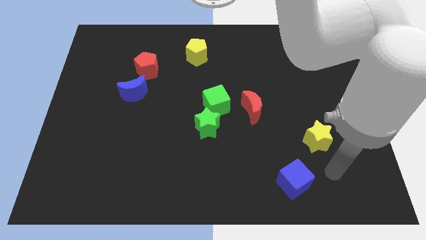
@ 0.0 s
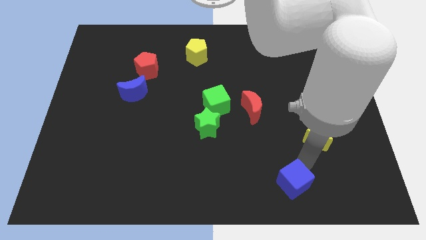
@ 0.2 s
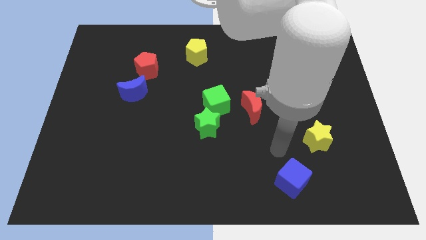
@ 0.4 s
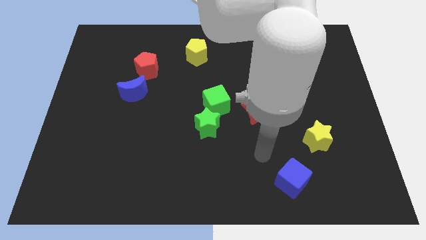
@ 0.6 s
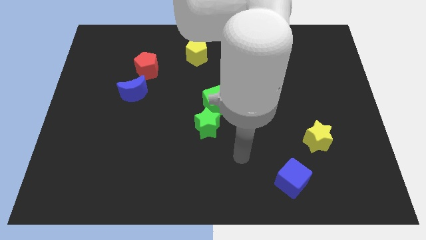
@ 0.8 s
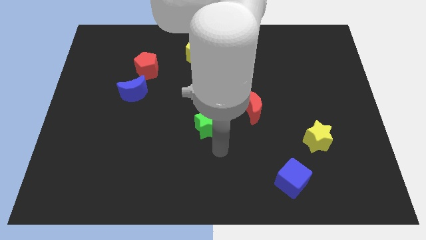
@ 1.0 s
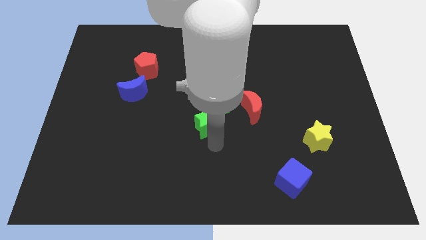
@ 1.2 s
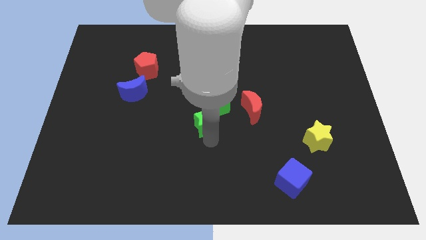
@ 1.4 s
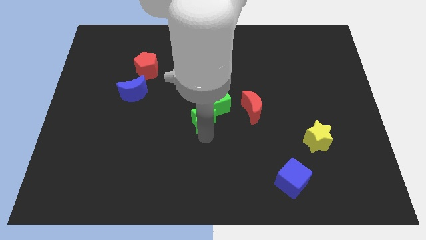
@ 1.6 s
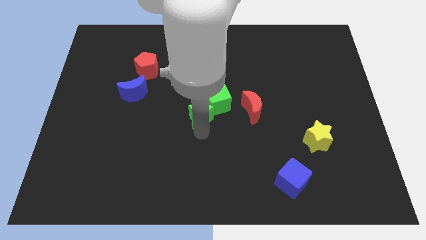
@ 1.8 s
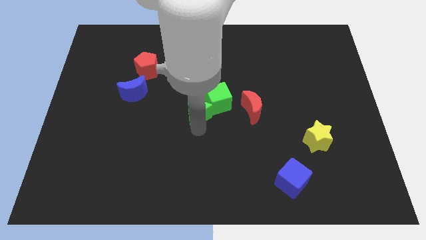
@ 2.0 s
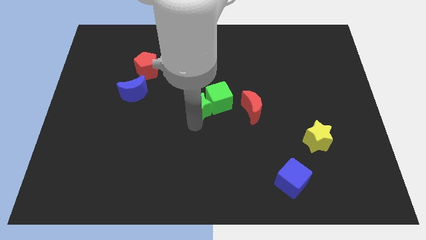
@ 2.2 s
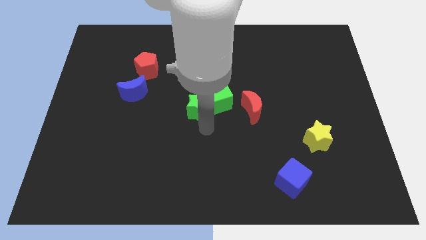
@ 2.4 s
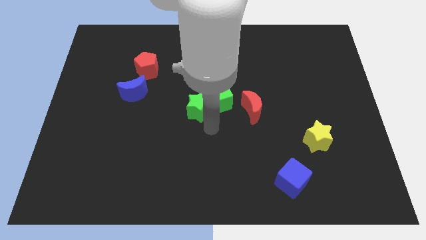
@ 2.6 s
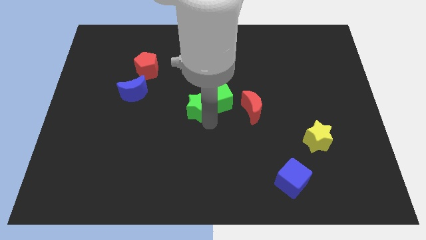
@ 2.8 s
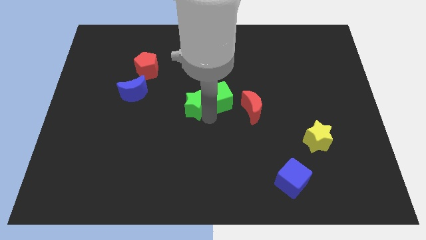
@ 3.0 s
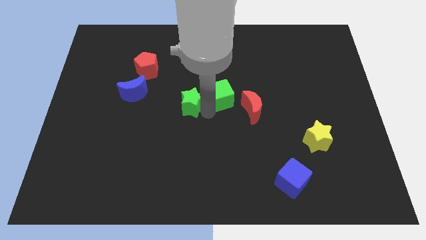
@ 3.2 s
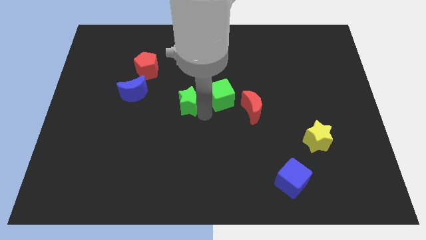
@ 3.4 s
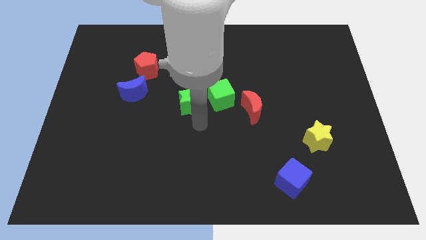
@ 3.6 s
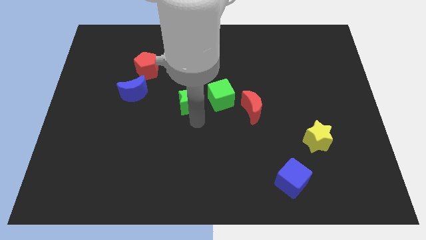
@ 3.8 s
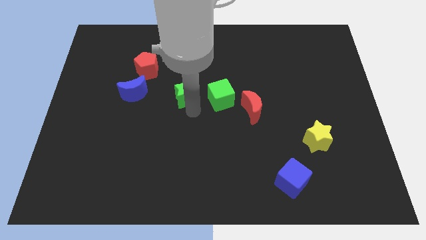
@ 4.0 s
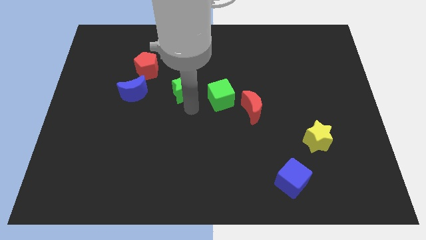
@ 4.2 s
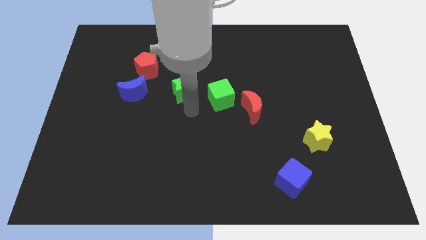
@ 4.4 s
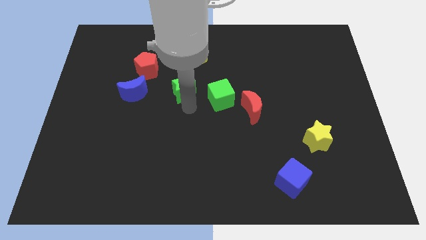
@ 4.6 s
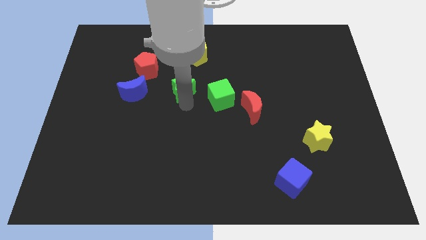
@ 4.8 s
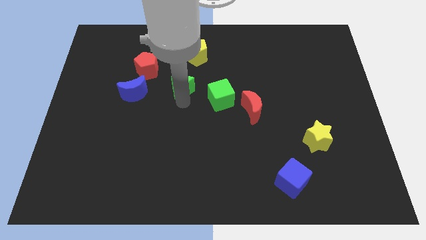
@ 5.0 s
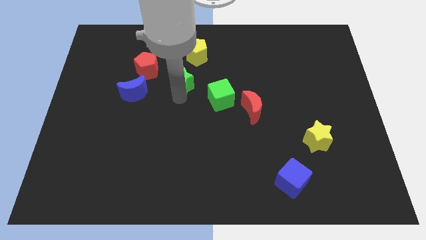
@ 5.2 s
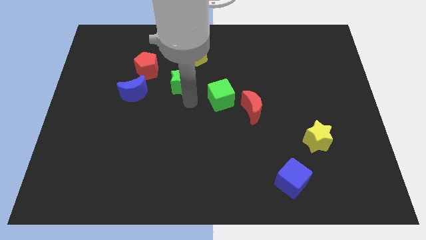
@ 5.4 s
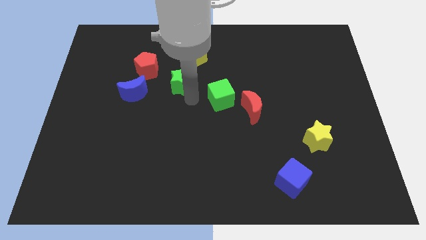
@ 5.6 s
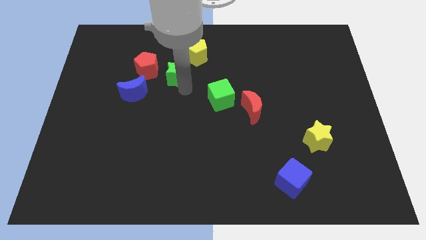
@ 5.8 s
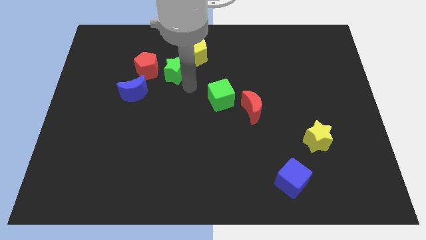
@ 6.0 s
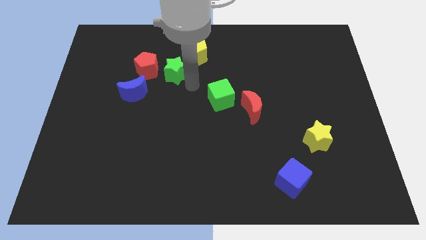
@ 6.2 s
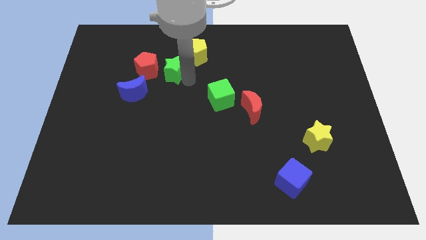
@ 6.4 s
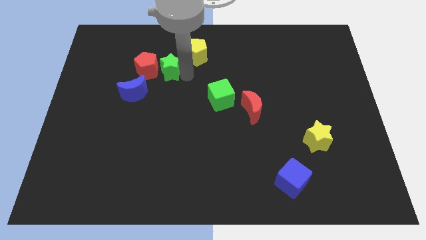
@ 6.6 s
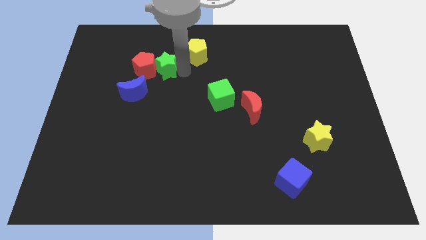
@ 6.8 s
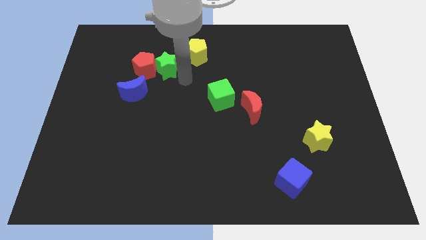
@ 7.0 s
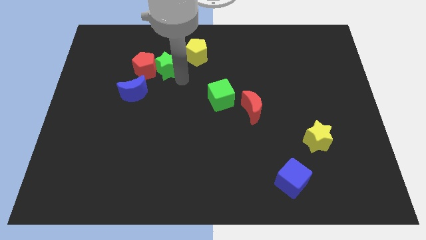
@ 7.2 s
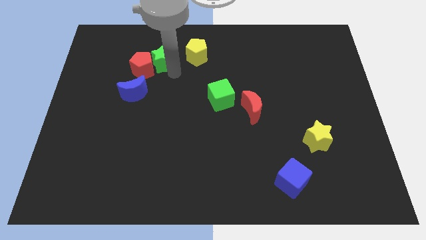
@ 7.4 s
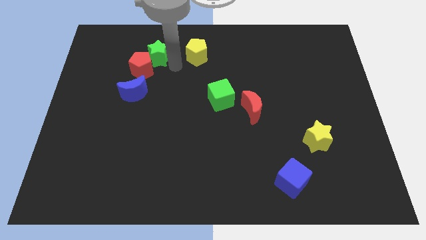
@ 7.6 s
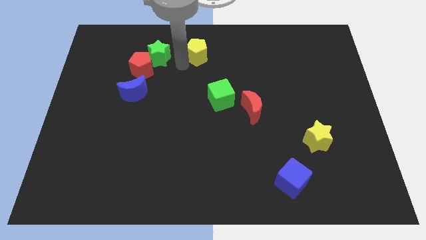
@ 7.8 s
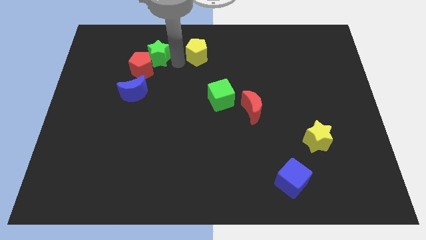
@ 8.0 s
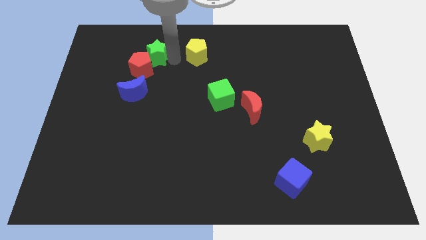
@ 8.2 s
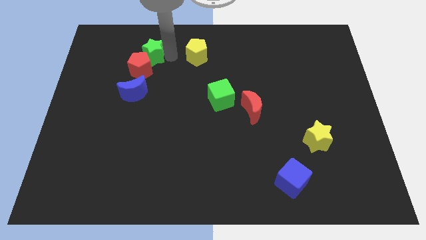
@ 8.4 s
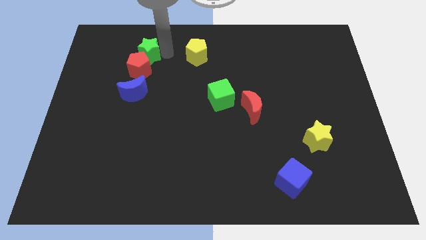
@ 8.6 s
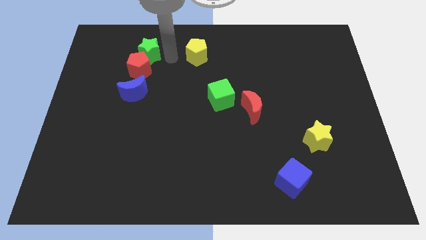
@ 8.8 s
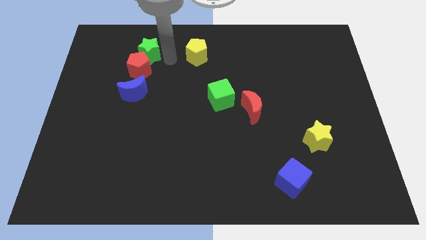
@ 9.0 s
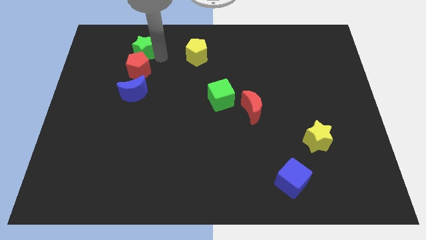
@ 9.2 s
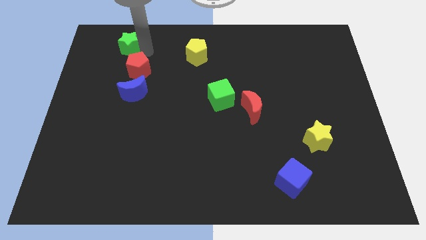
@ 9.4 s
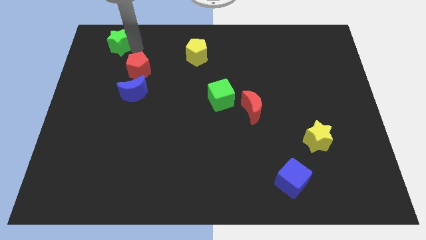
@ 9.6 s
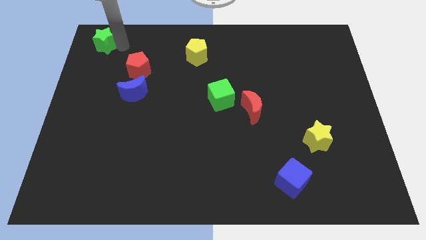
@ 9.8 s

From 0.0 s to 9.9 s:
slide the green star to the upper left corner

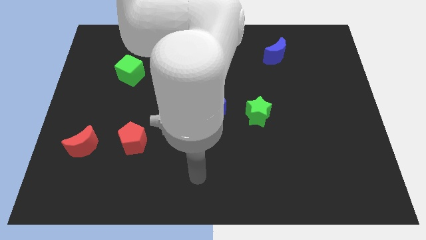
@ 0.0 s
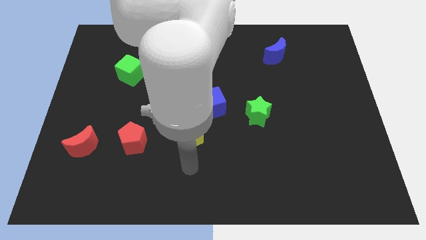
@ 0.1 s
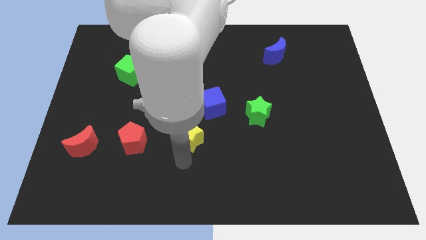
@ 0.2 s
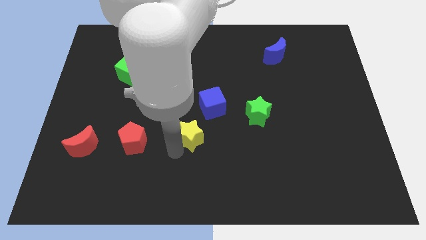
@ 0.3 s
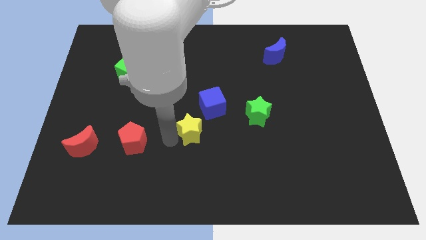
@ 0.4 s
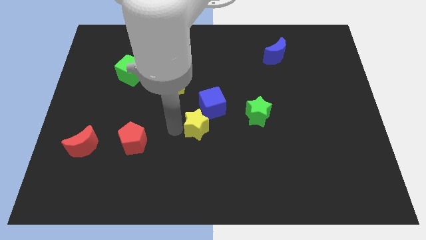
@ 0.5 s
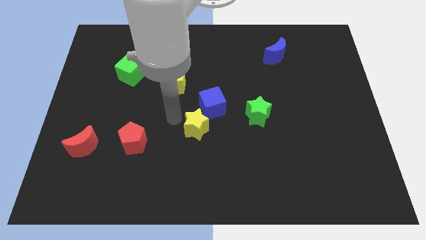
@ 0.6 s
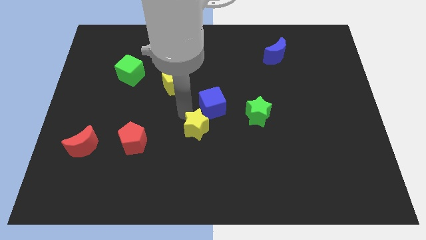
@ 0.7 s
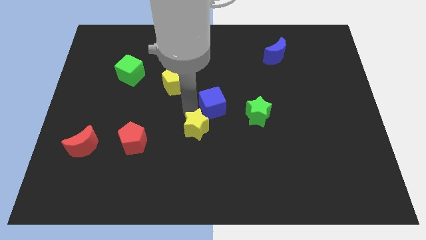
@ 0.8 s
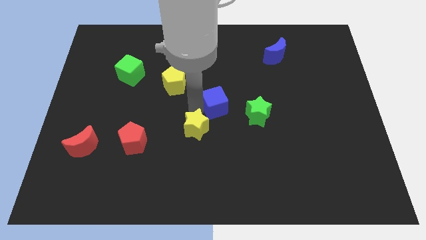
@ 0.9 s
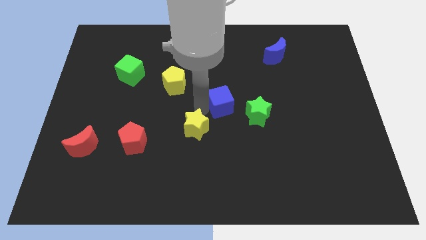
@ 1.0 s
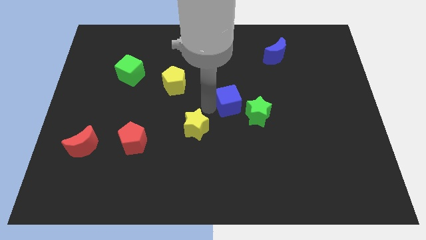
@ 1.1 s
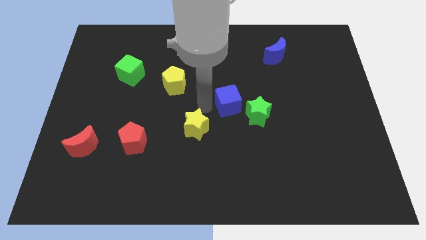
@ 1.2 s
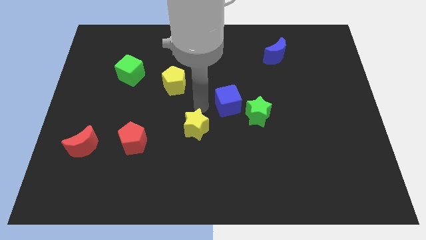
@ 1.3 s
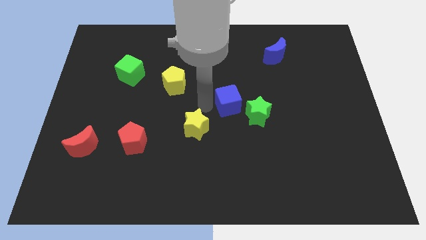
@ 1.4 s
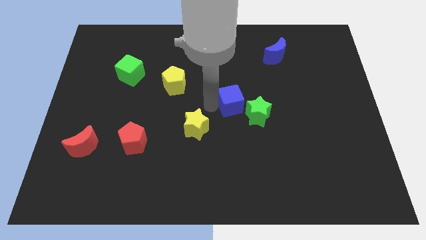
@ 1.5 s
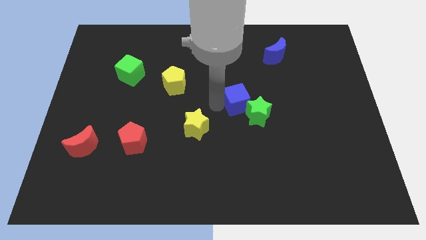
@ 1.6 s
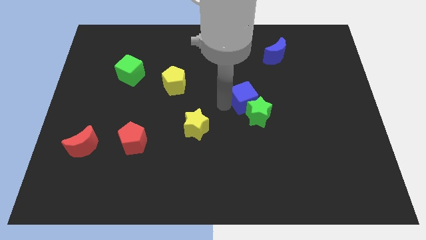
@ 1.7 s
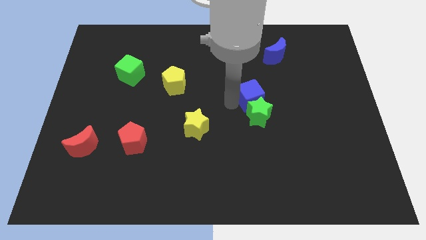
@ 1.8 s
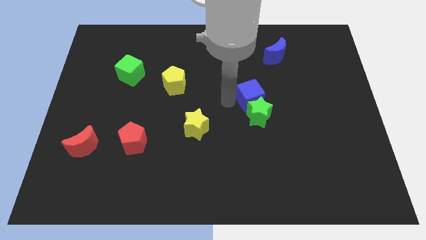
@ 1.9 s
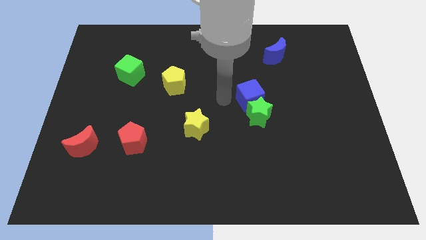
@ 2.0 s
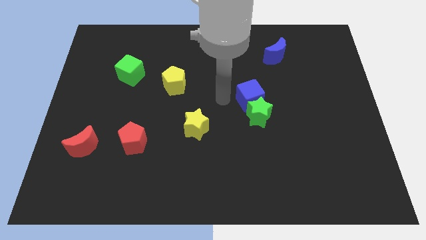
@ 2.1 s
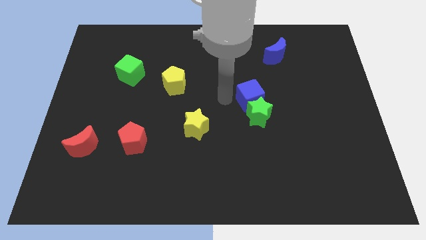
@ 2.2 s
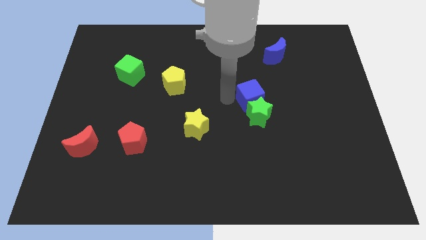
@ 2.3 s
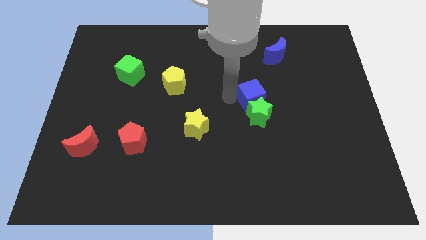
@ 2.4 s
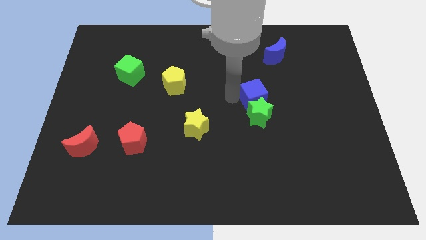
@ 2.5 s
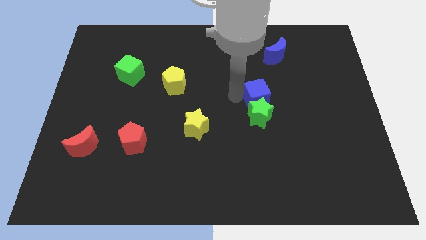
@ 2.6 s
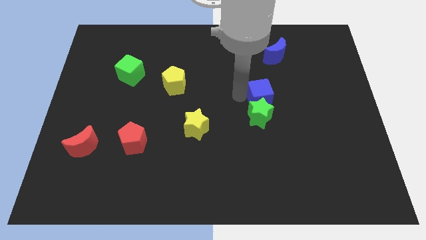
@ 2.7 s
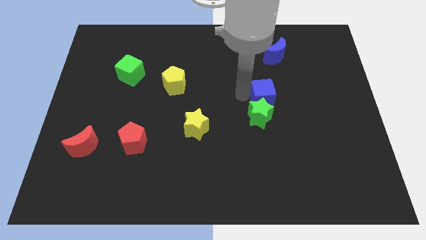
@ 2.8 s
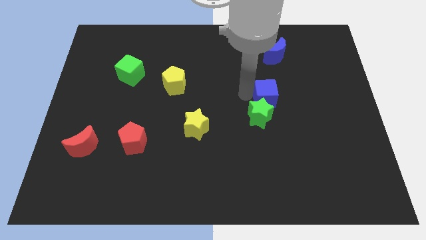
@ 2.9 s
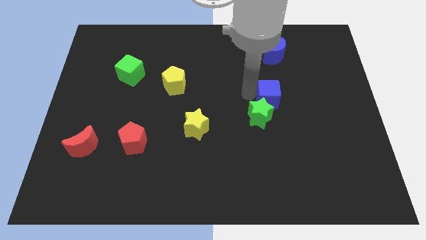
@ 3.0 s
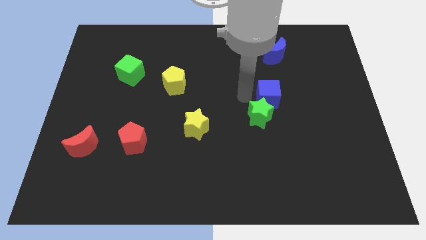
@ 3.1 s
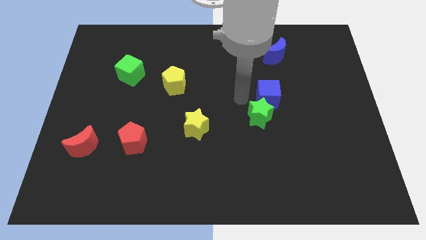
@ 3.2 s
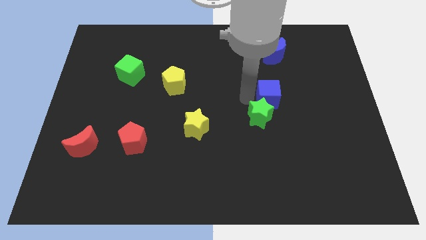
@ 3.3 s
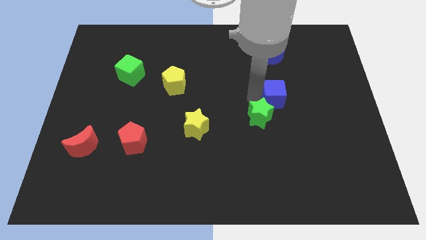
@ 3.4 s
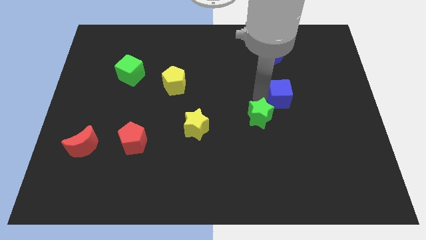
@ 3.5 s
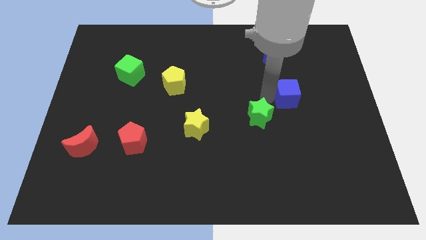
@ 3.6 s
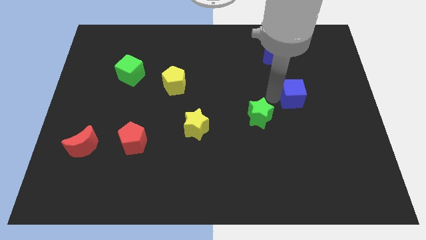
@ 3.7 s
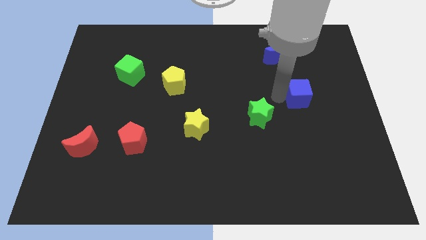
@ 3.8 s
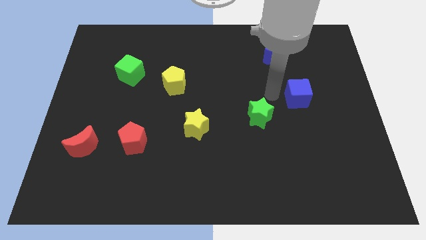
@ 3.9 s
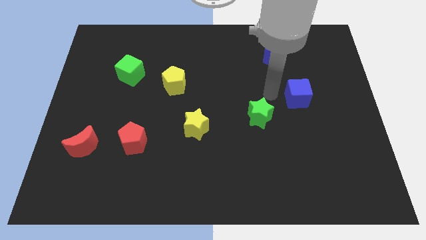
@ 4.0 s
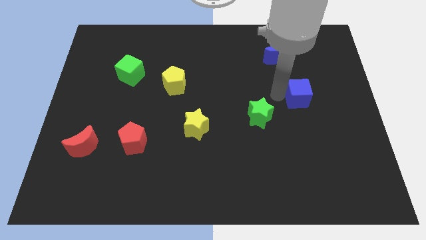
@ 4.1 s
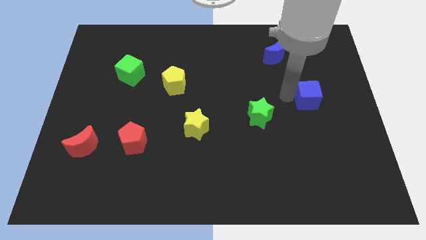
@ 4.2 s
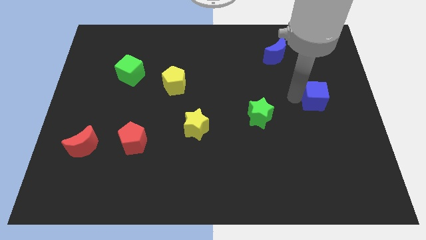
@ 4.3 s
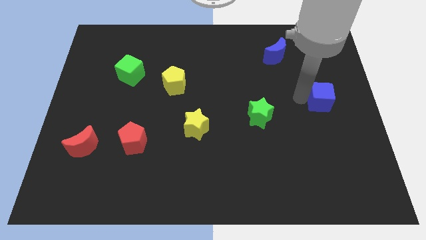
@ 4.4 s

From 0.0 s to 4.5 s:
push the blue cube to the right side
